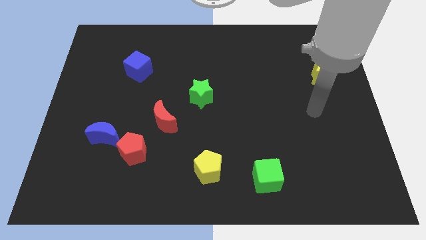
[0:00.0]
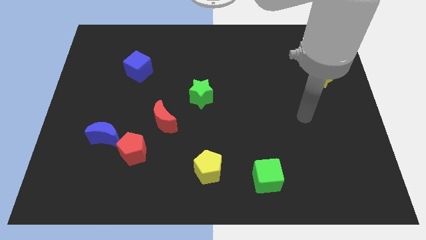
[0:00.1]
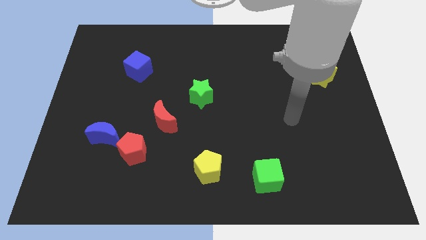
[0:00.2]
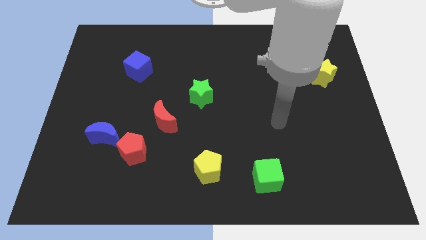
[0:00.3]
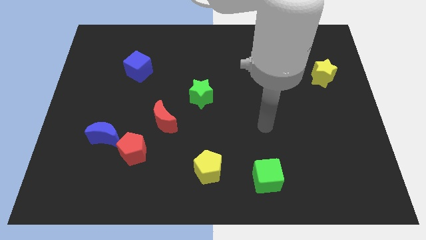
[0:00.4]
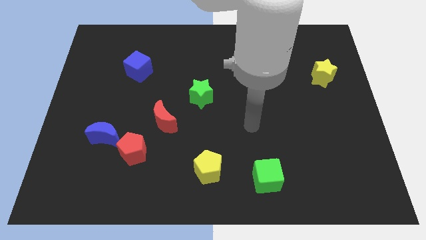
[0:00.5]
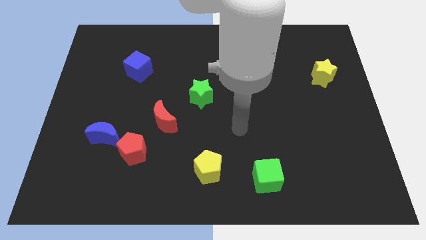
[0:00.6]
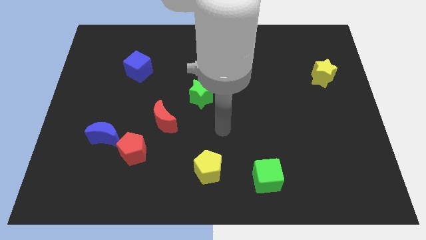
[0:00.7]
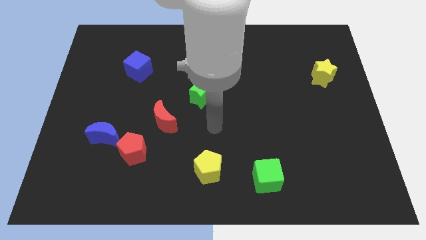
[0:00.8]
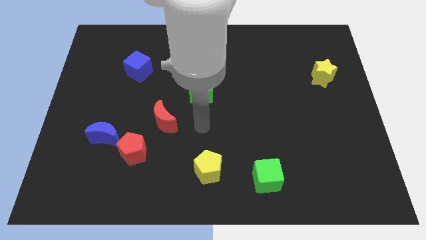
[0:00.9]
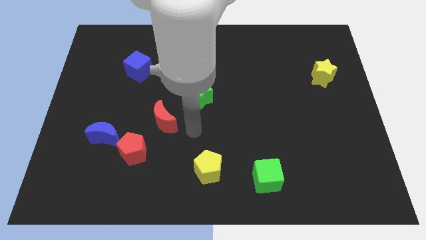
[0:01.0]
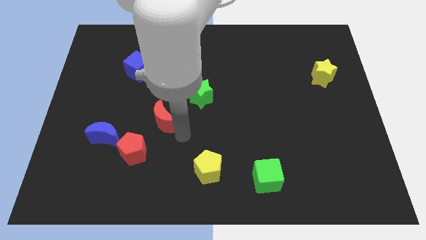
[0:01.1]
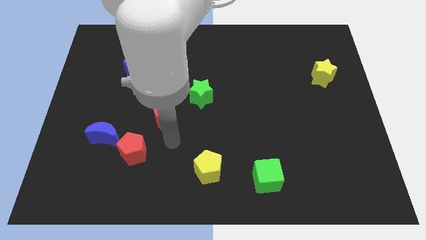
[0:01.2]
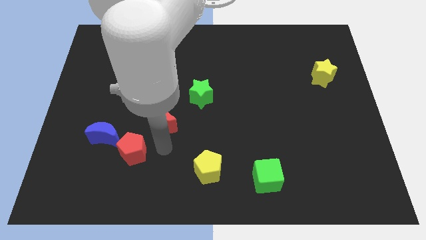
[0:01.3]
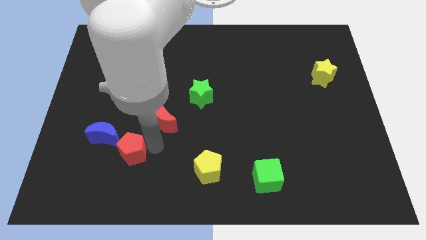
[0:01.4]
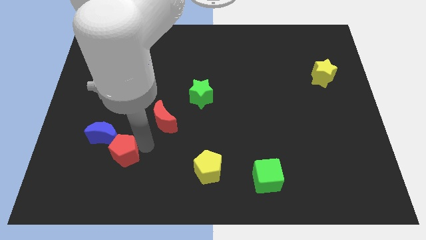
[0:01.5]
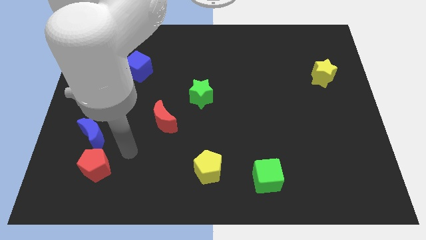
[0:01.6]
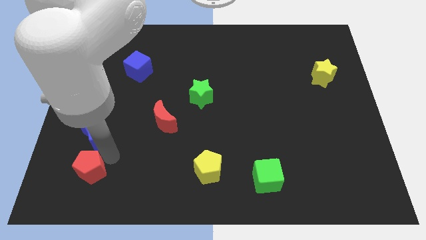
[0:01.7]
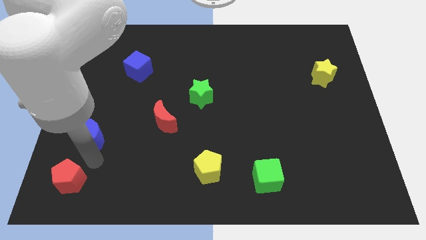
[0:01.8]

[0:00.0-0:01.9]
pull the blue moon apart from the red pentagon

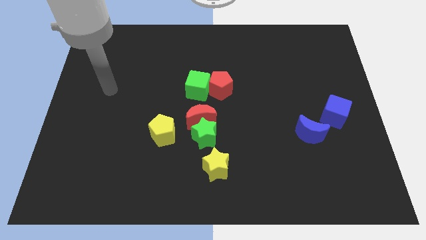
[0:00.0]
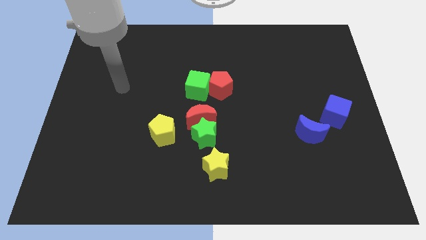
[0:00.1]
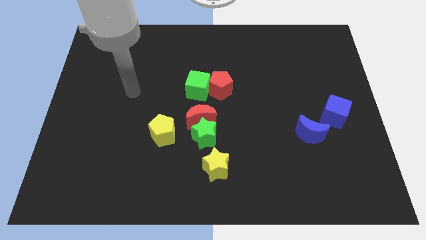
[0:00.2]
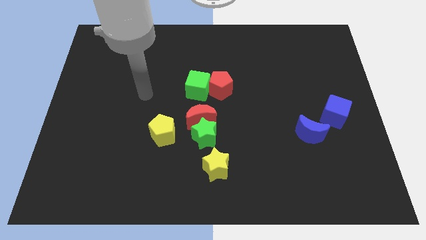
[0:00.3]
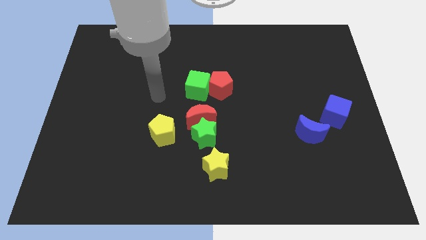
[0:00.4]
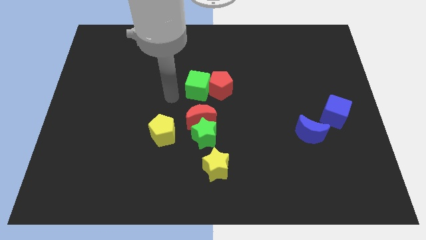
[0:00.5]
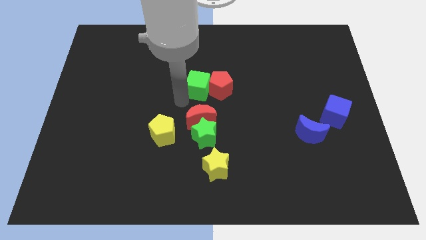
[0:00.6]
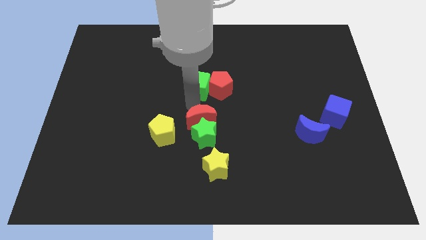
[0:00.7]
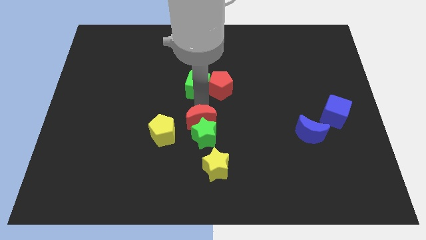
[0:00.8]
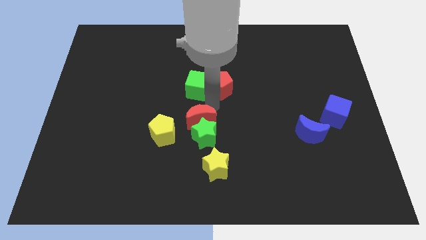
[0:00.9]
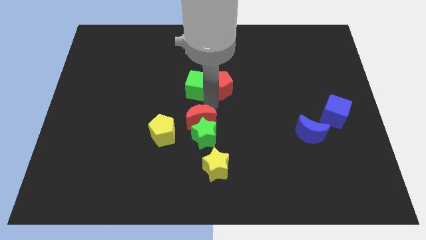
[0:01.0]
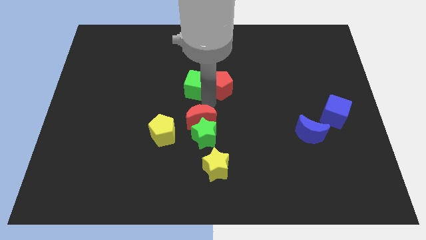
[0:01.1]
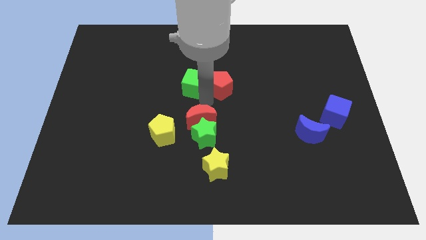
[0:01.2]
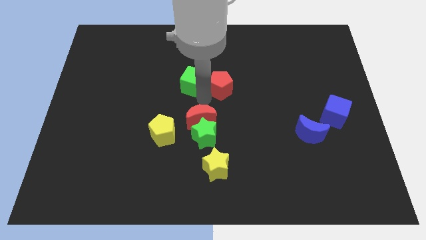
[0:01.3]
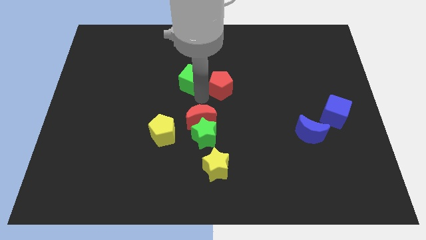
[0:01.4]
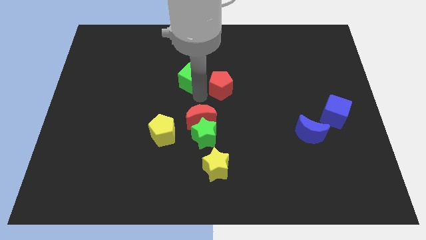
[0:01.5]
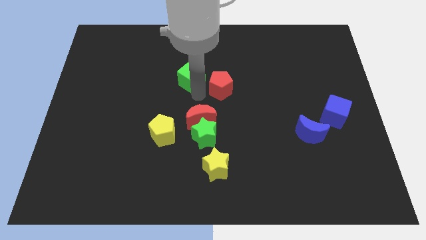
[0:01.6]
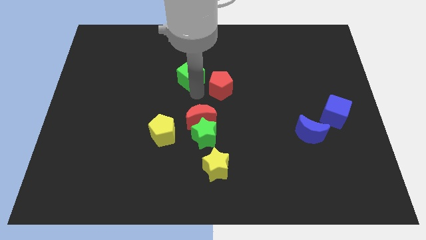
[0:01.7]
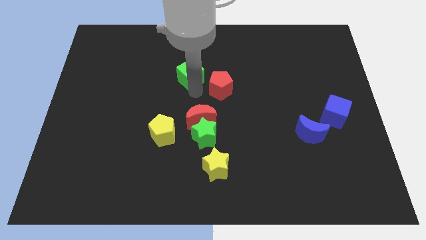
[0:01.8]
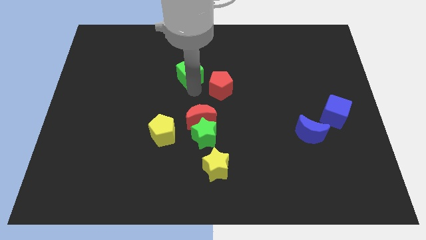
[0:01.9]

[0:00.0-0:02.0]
separate the green cube from the red pentagon and red moon

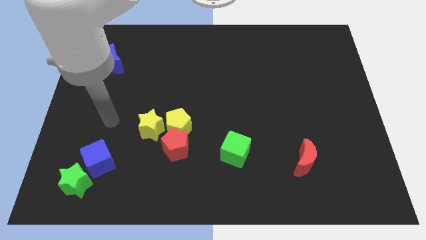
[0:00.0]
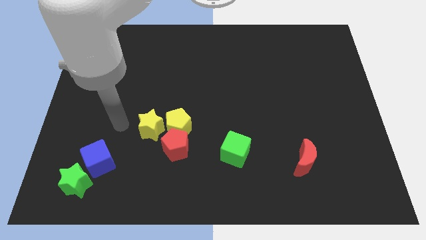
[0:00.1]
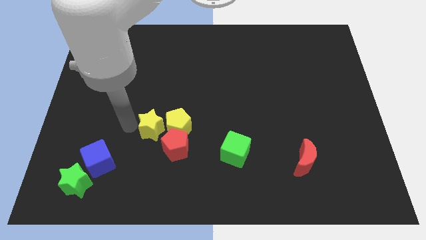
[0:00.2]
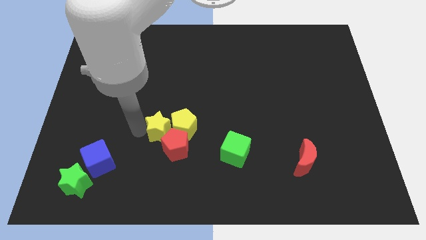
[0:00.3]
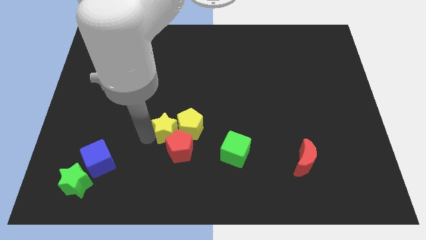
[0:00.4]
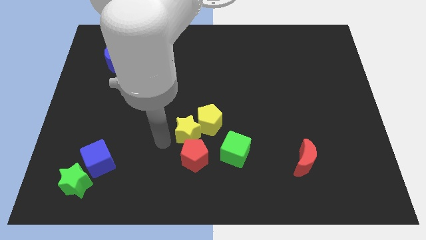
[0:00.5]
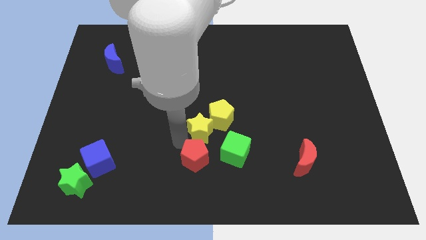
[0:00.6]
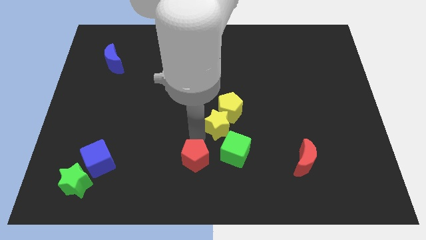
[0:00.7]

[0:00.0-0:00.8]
move the yellow pentagon away from the red pentagon and yellow star

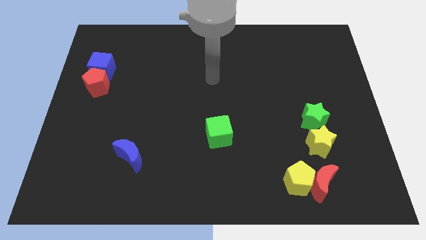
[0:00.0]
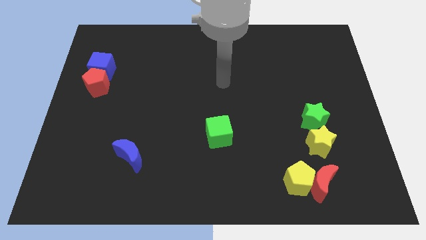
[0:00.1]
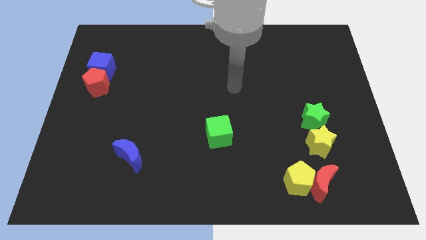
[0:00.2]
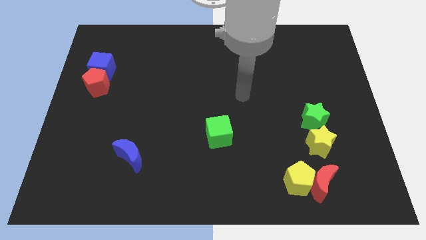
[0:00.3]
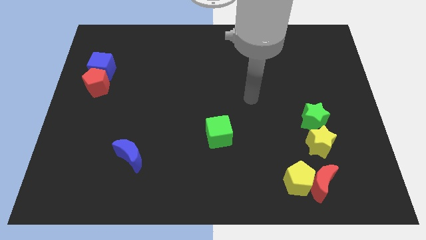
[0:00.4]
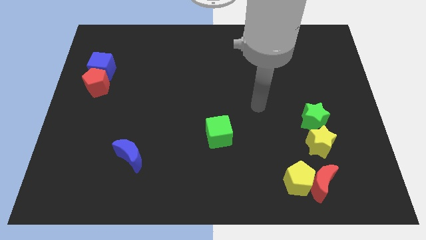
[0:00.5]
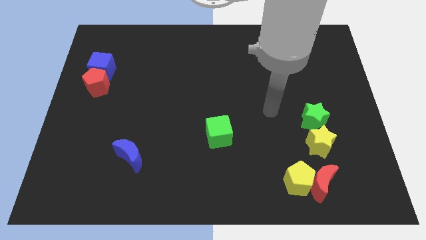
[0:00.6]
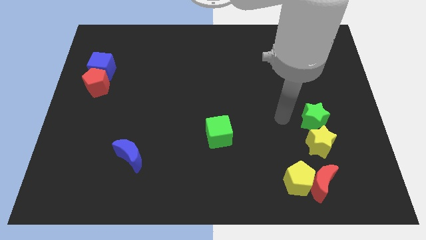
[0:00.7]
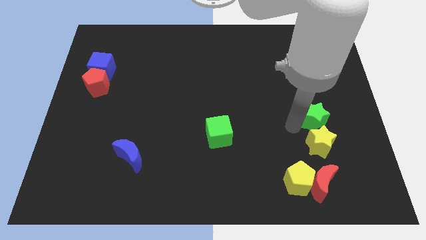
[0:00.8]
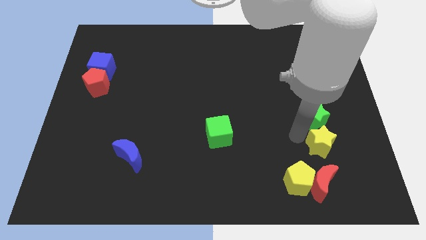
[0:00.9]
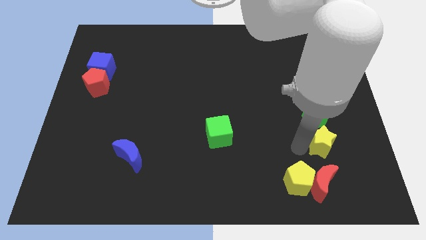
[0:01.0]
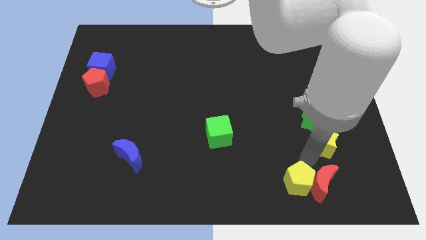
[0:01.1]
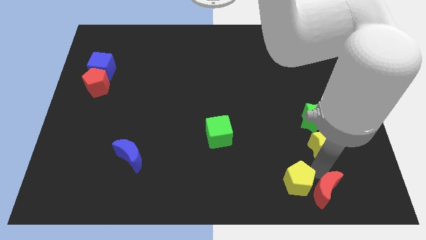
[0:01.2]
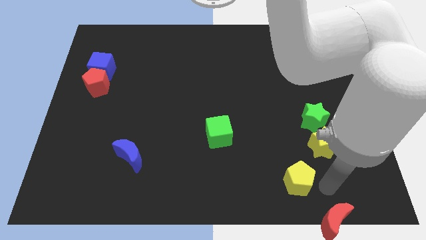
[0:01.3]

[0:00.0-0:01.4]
pull the yellow pentagon apart from the red moon

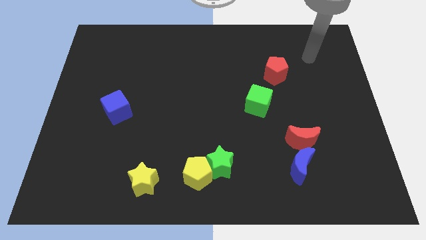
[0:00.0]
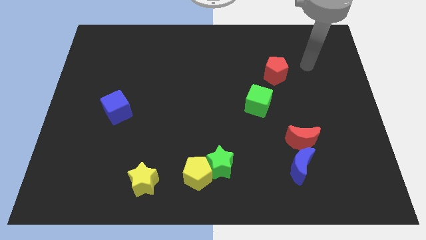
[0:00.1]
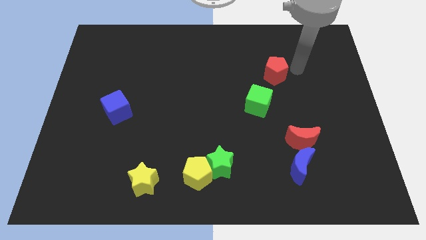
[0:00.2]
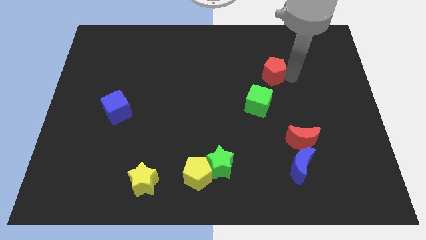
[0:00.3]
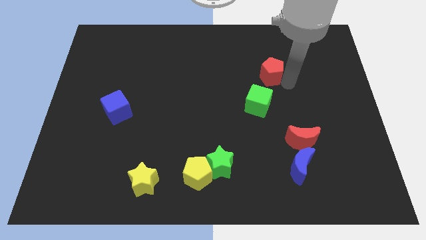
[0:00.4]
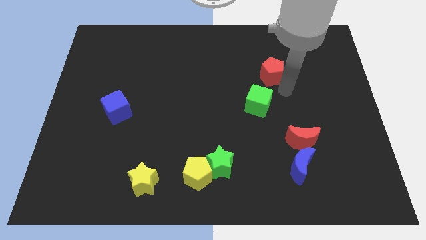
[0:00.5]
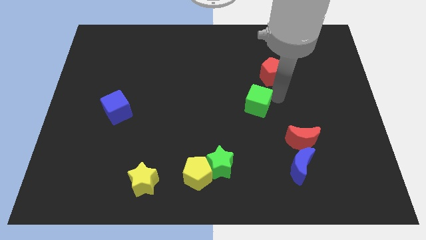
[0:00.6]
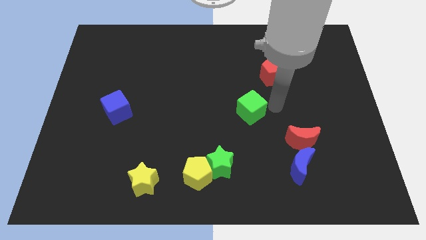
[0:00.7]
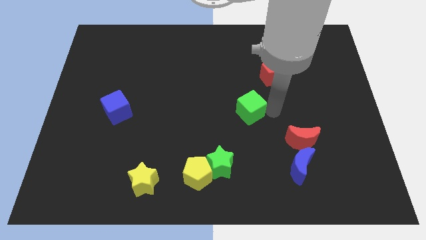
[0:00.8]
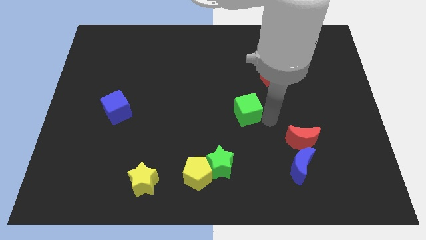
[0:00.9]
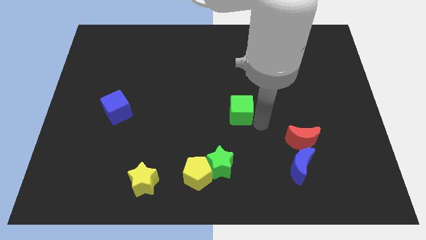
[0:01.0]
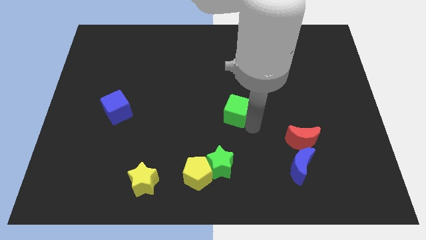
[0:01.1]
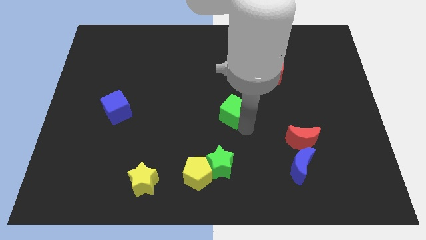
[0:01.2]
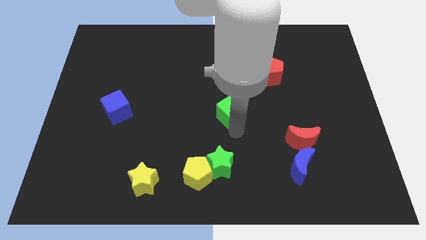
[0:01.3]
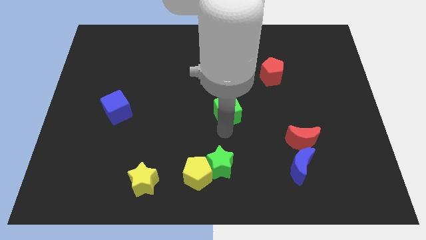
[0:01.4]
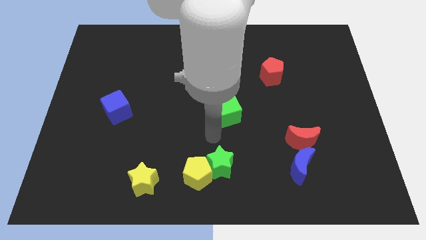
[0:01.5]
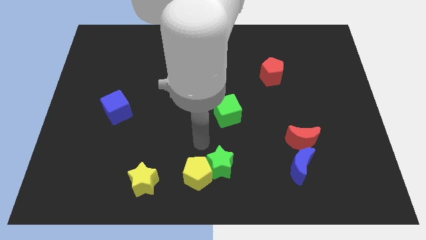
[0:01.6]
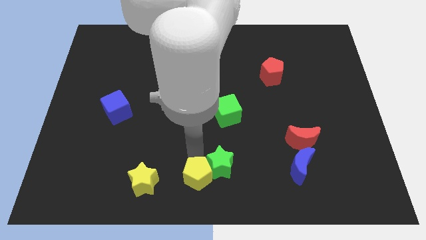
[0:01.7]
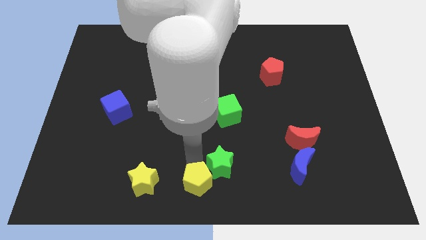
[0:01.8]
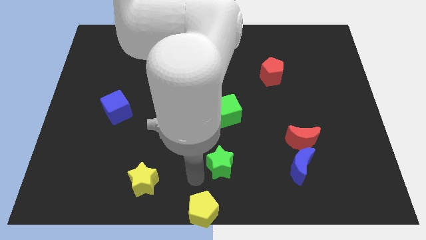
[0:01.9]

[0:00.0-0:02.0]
separate the green star from the yellow pentagon

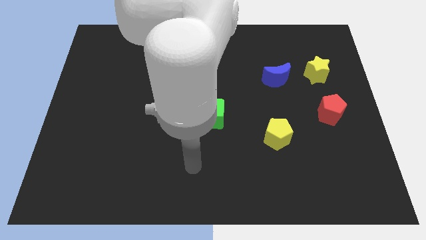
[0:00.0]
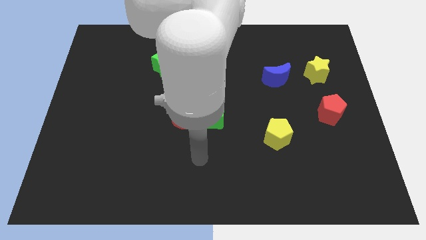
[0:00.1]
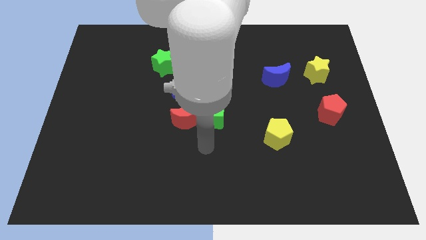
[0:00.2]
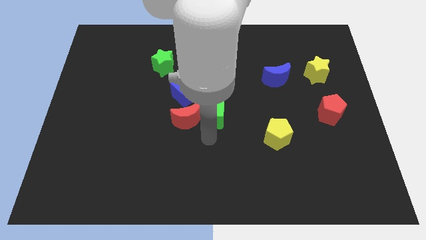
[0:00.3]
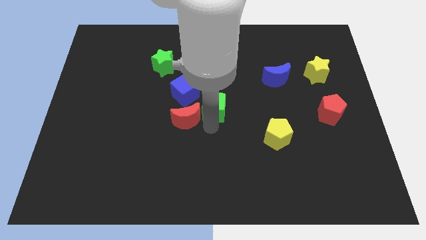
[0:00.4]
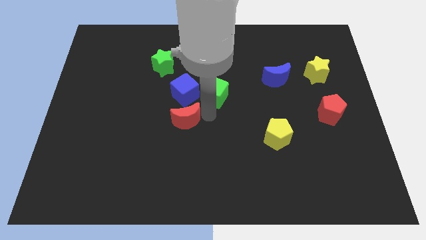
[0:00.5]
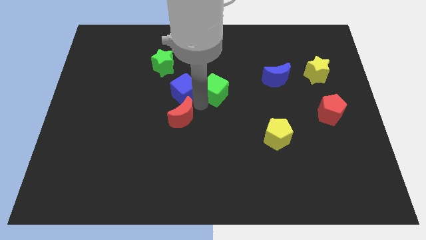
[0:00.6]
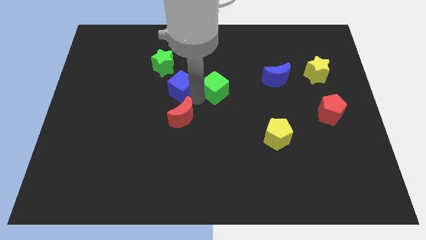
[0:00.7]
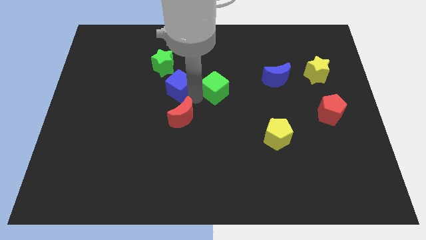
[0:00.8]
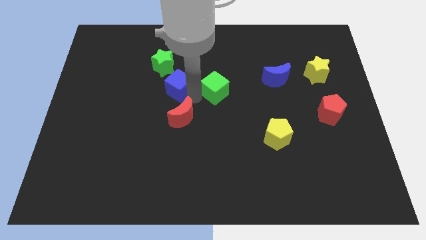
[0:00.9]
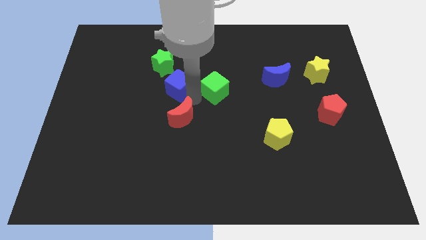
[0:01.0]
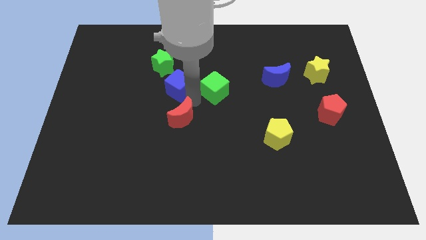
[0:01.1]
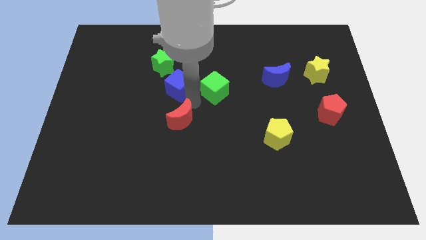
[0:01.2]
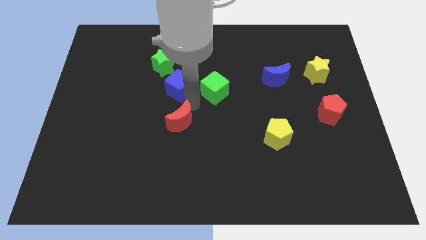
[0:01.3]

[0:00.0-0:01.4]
pull the red moon apart from the green cube and blue cube
